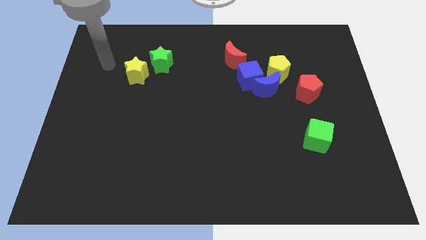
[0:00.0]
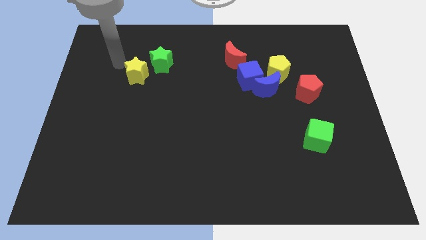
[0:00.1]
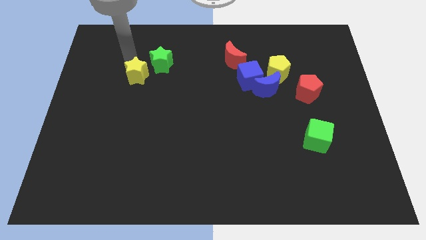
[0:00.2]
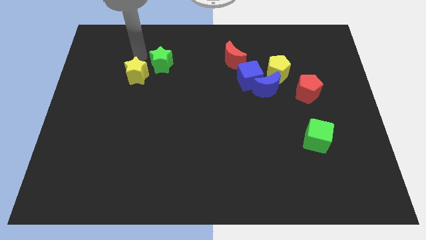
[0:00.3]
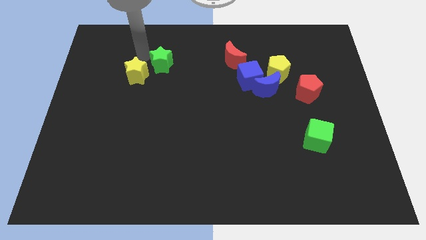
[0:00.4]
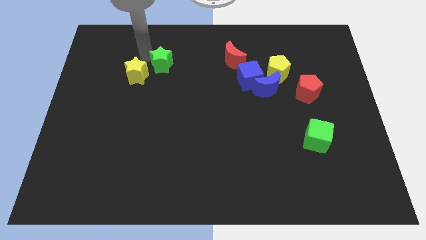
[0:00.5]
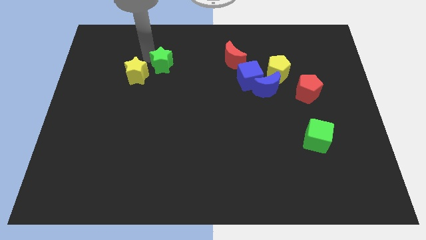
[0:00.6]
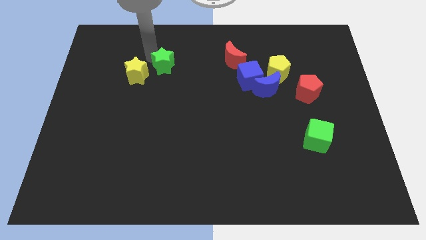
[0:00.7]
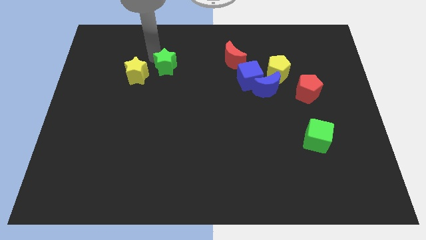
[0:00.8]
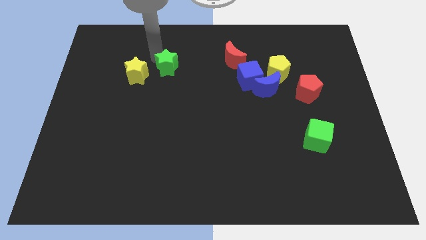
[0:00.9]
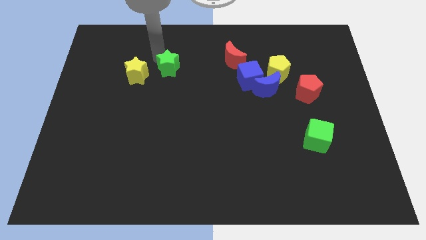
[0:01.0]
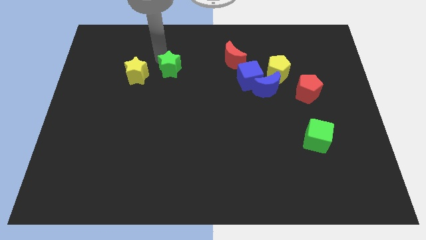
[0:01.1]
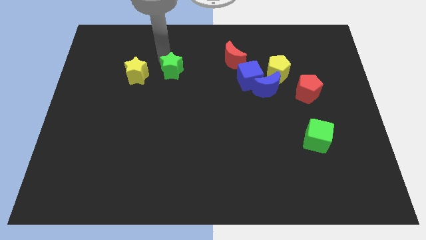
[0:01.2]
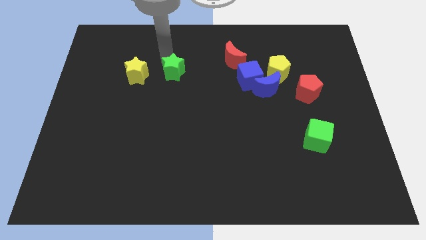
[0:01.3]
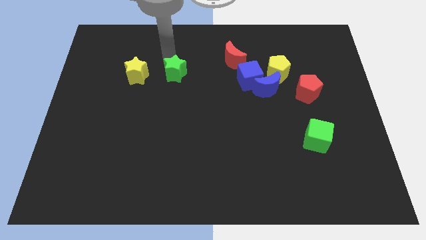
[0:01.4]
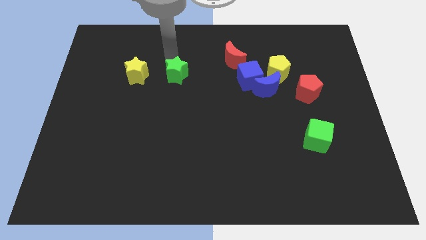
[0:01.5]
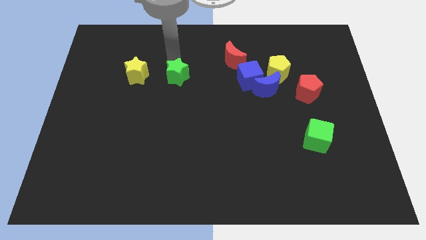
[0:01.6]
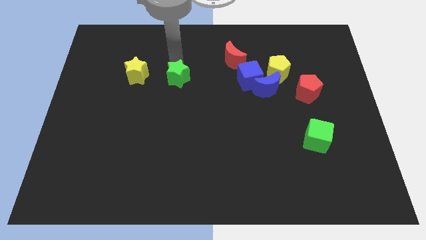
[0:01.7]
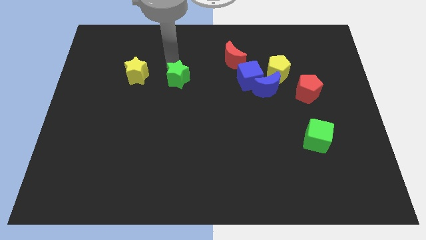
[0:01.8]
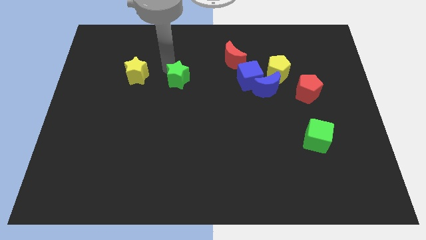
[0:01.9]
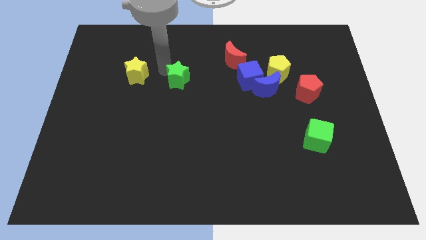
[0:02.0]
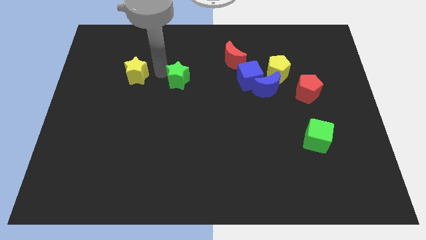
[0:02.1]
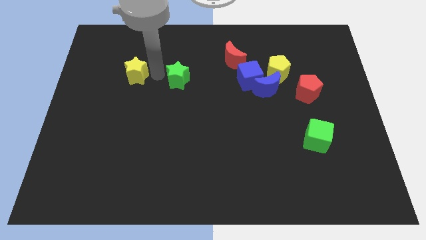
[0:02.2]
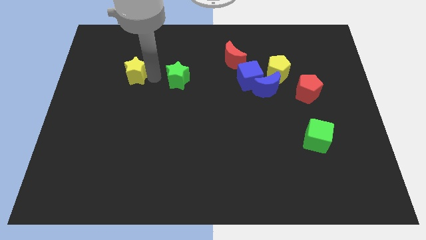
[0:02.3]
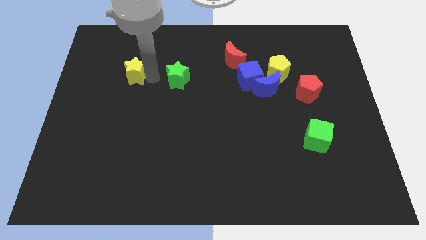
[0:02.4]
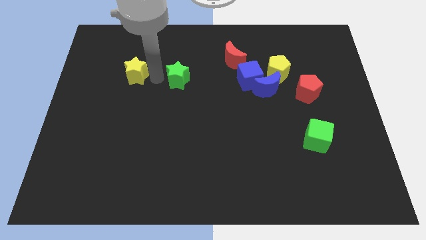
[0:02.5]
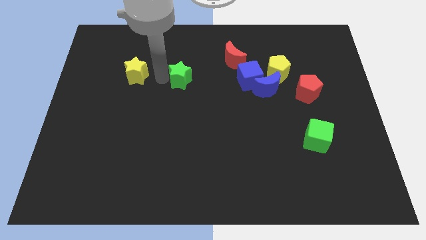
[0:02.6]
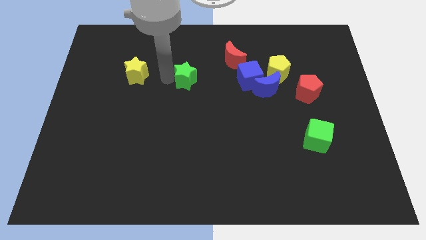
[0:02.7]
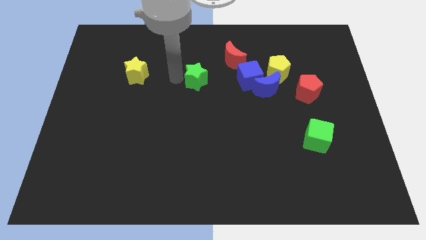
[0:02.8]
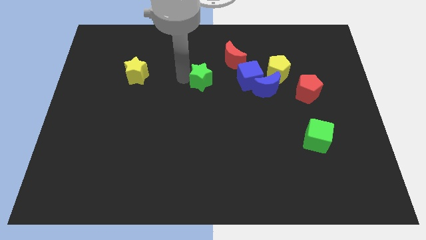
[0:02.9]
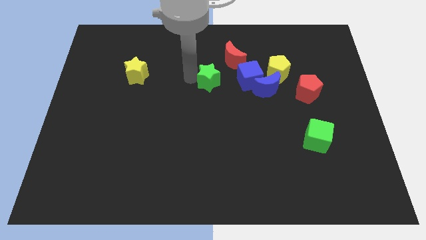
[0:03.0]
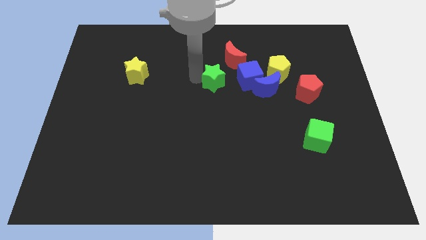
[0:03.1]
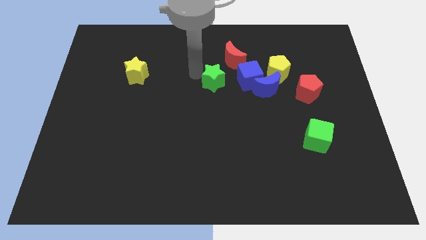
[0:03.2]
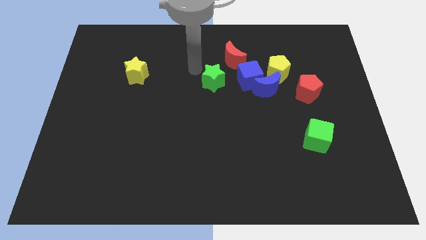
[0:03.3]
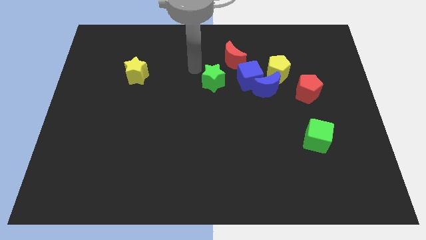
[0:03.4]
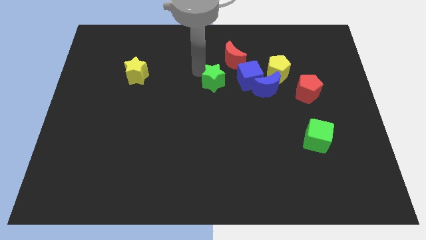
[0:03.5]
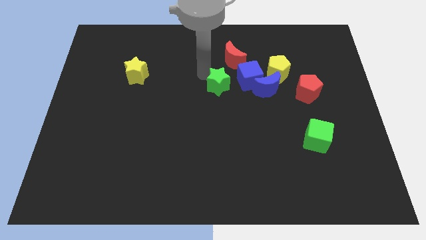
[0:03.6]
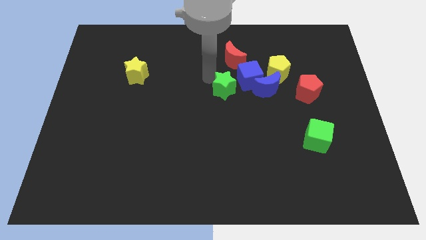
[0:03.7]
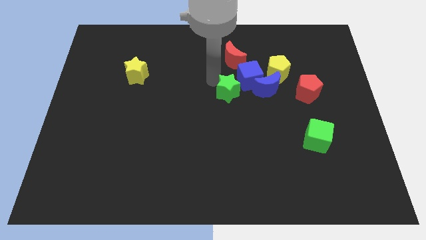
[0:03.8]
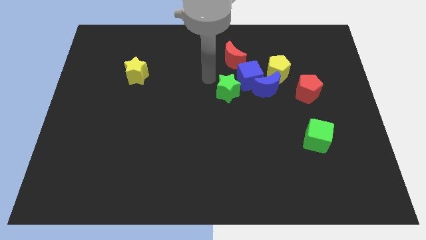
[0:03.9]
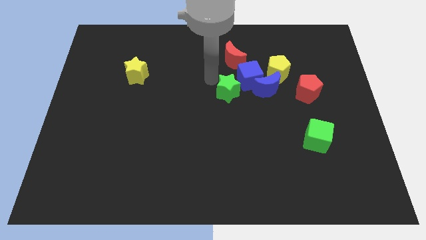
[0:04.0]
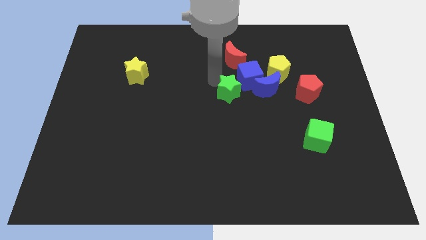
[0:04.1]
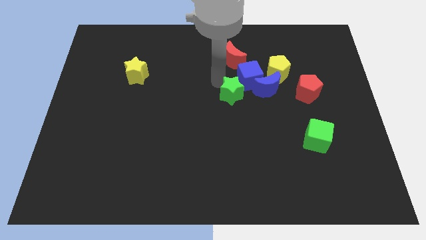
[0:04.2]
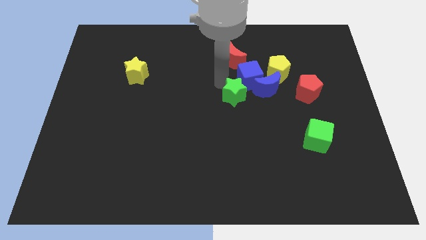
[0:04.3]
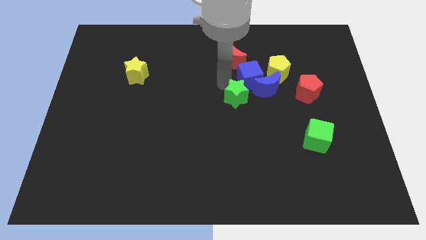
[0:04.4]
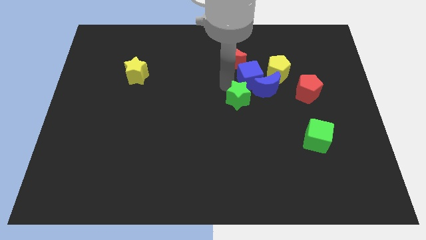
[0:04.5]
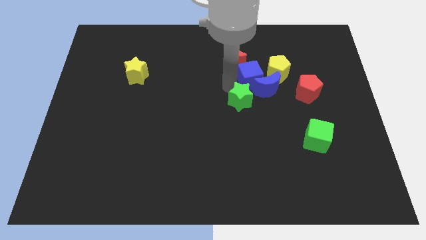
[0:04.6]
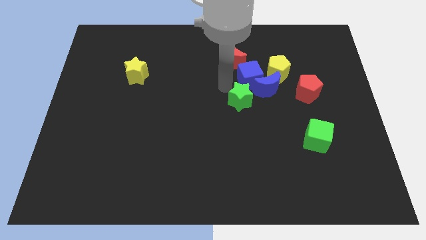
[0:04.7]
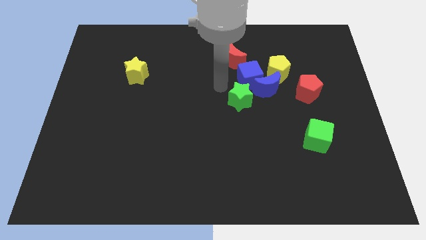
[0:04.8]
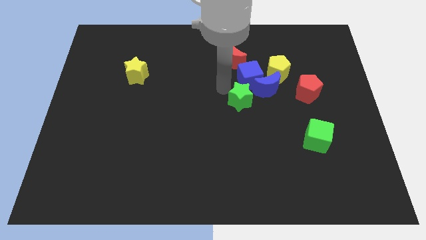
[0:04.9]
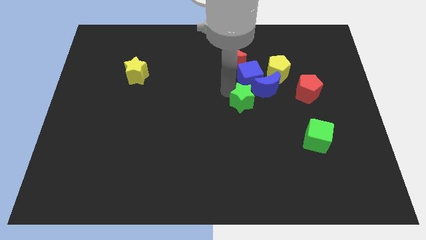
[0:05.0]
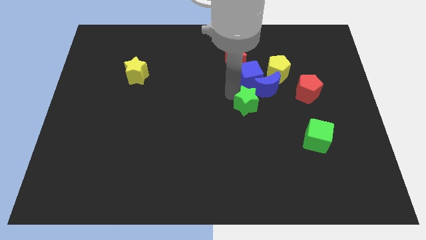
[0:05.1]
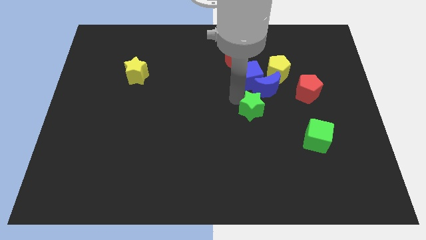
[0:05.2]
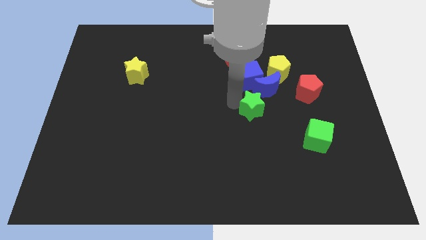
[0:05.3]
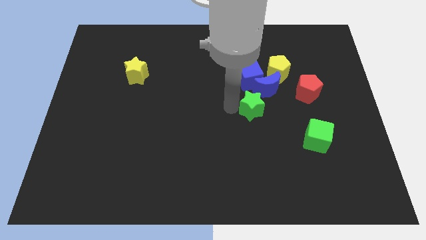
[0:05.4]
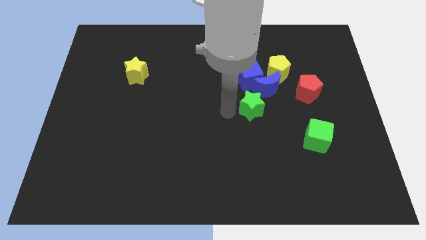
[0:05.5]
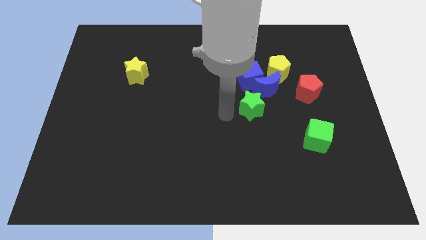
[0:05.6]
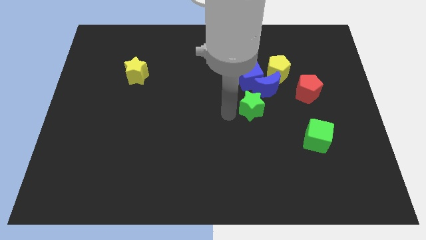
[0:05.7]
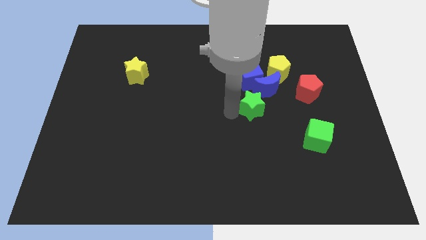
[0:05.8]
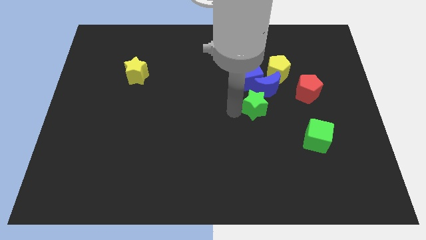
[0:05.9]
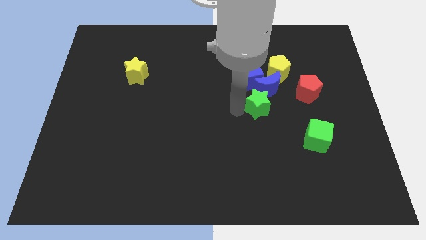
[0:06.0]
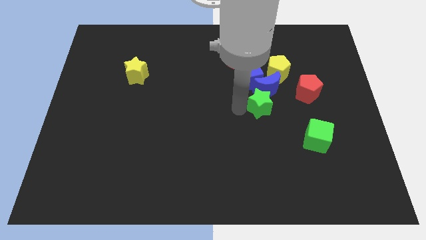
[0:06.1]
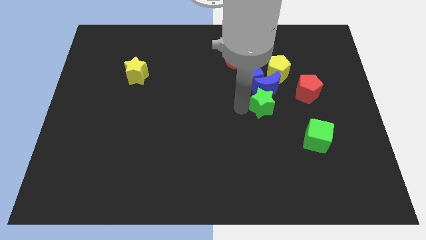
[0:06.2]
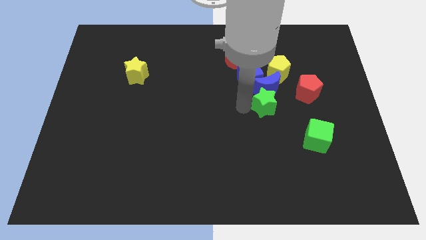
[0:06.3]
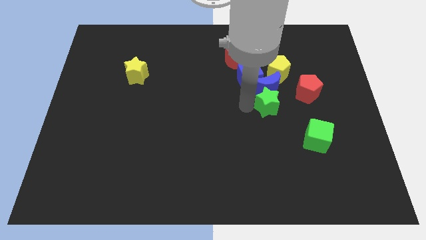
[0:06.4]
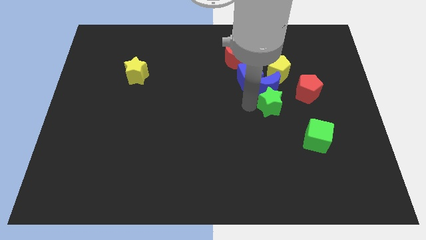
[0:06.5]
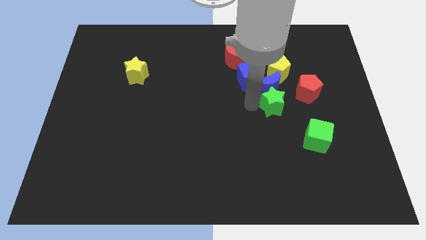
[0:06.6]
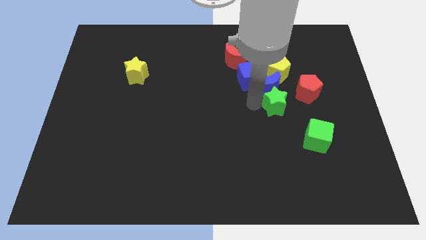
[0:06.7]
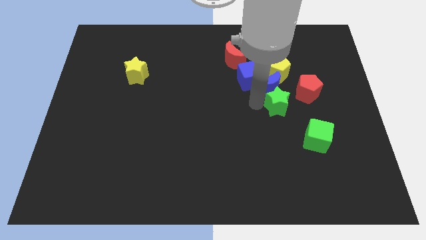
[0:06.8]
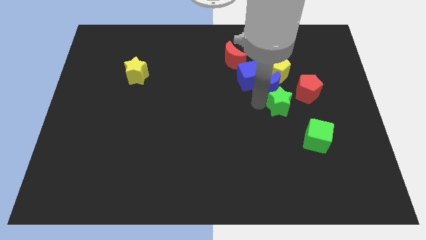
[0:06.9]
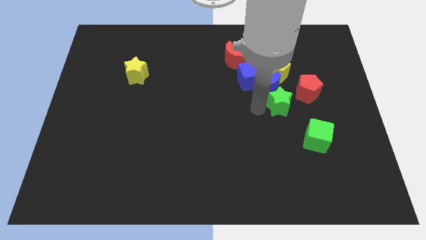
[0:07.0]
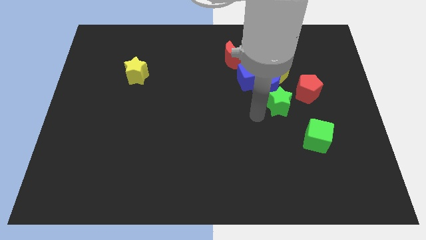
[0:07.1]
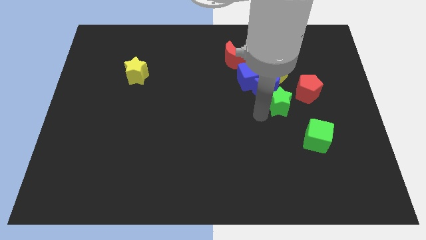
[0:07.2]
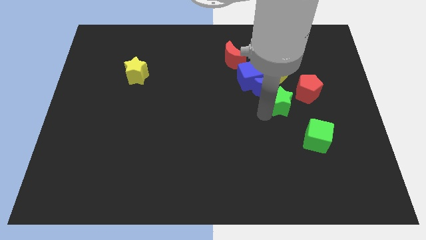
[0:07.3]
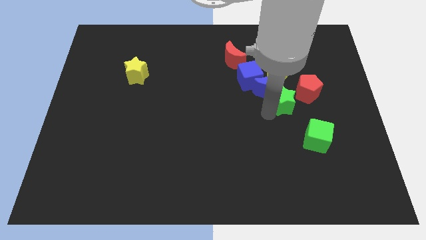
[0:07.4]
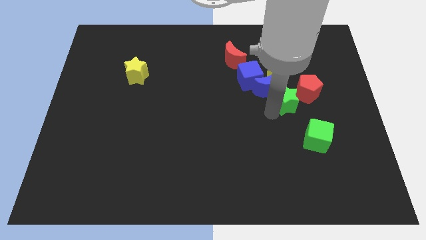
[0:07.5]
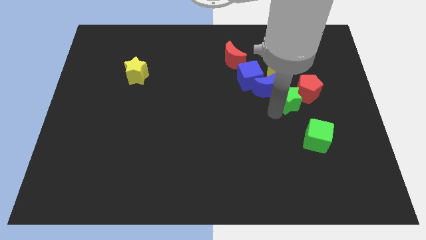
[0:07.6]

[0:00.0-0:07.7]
slide the green star to the red pentagon
